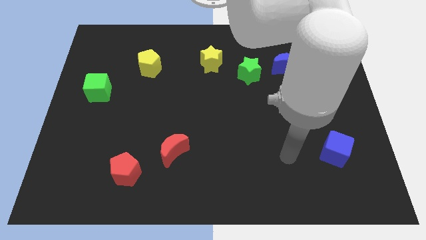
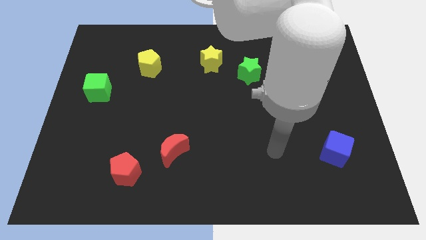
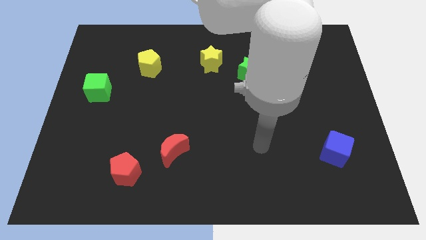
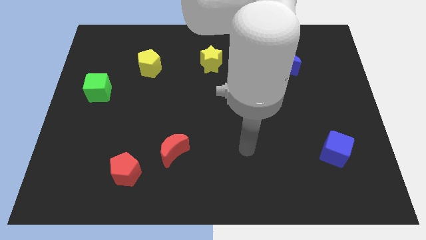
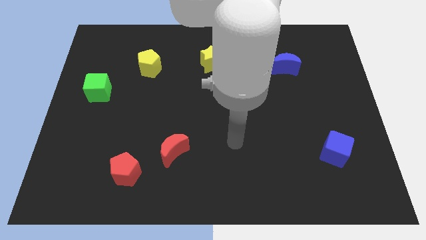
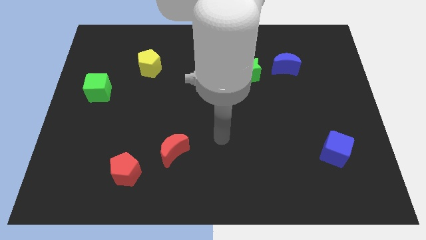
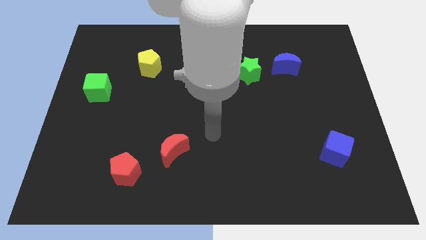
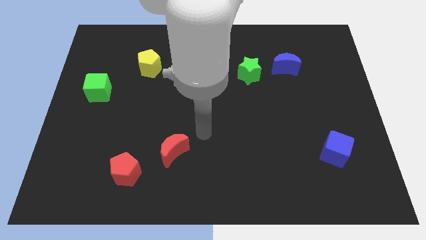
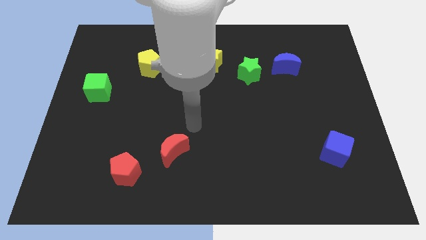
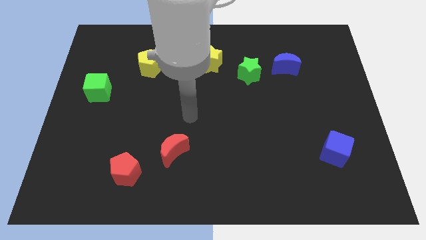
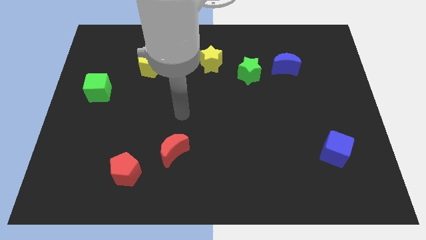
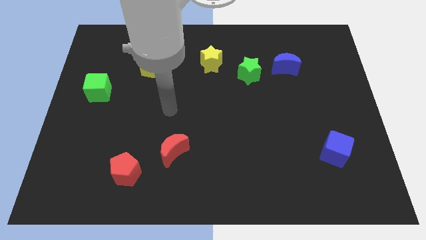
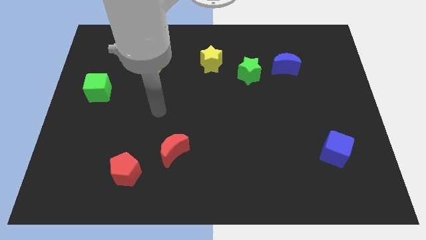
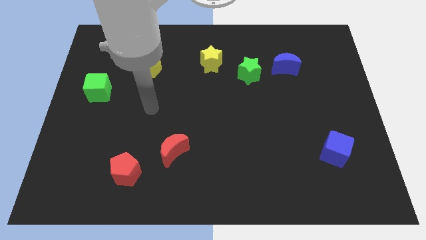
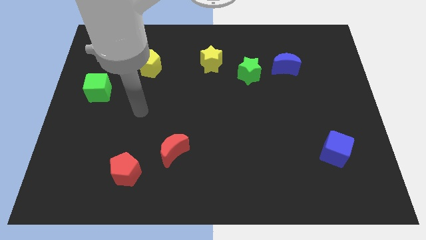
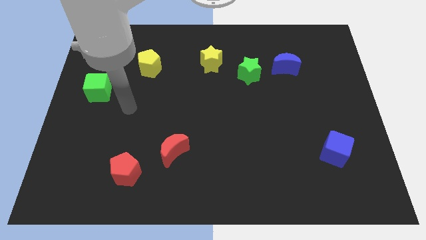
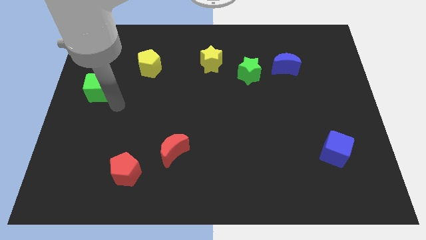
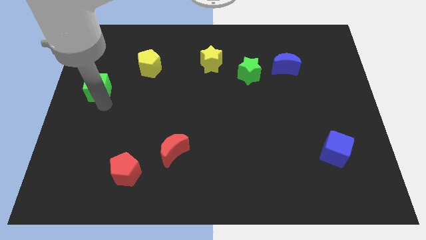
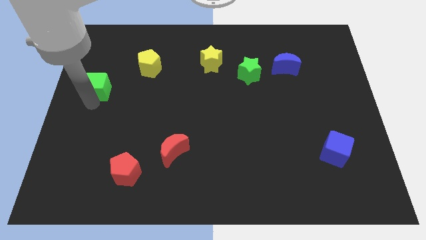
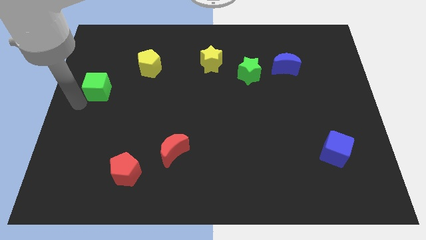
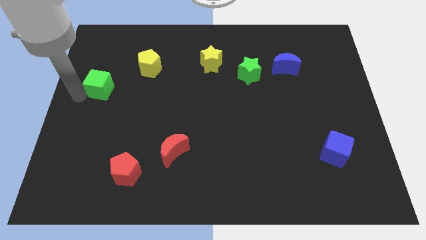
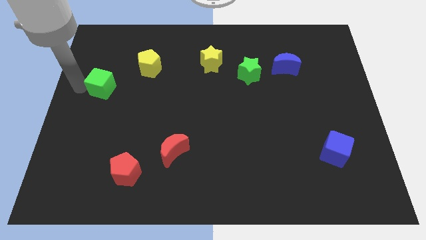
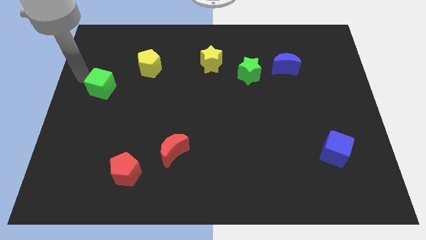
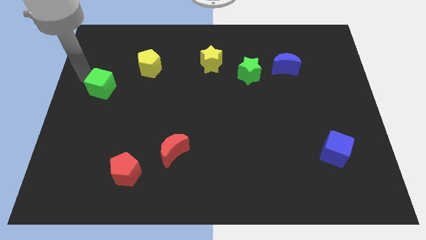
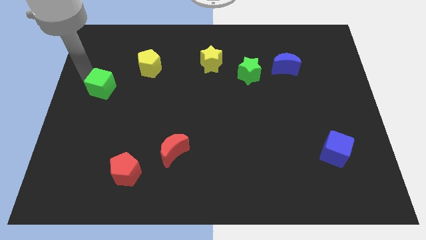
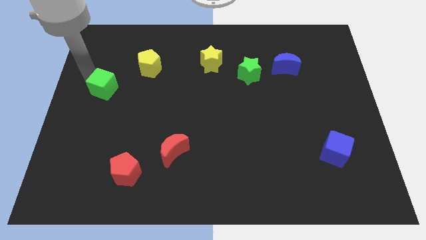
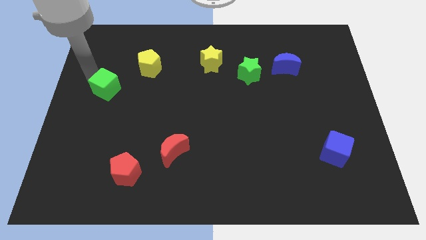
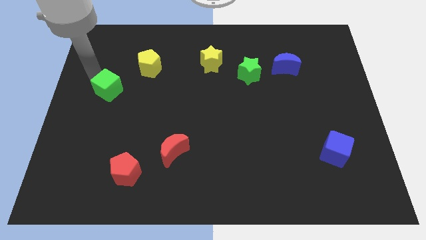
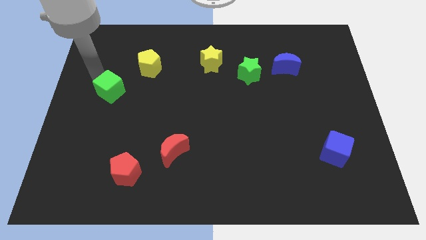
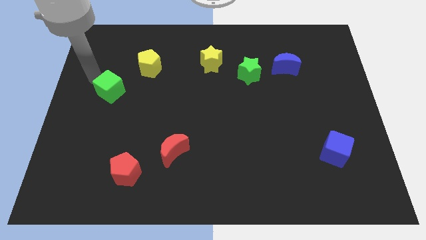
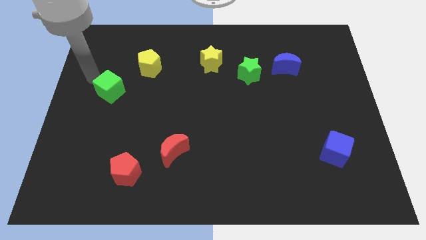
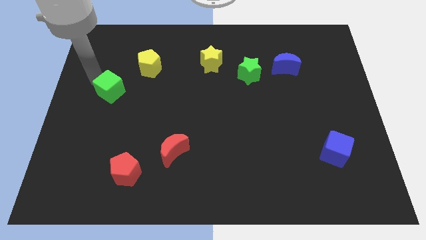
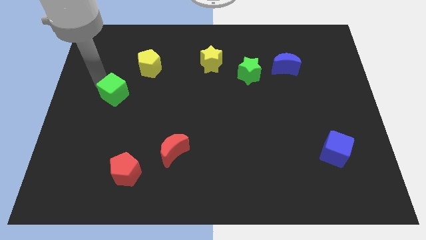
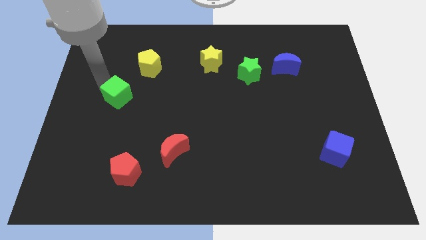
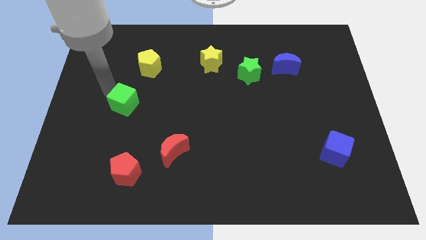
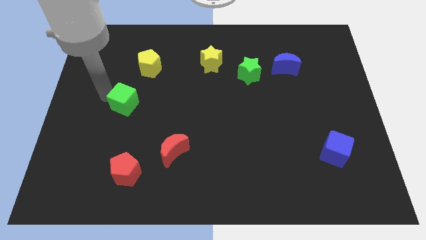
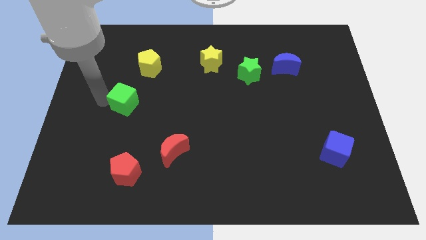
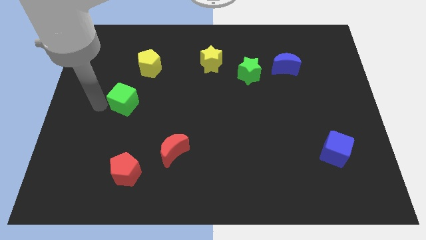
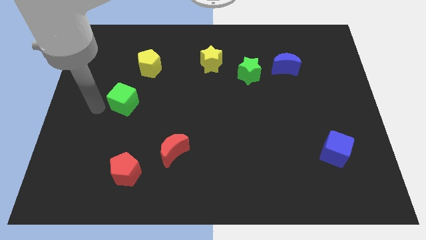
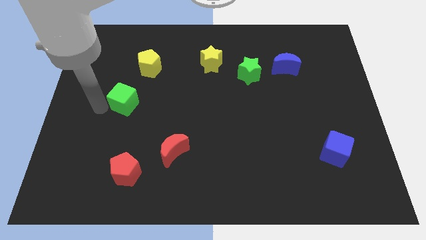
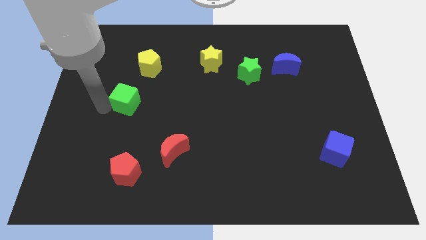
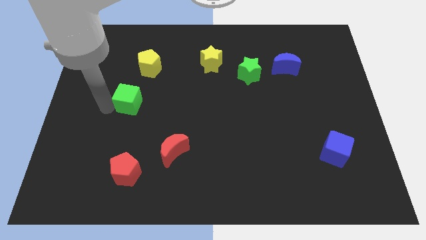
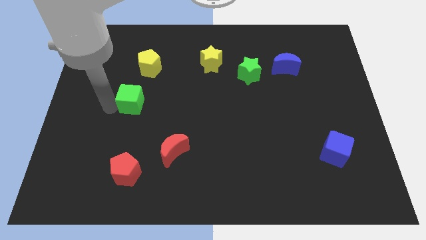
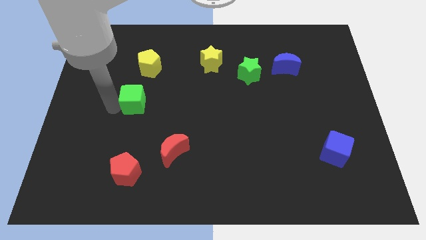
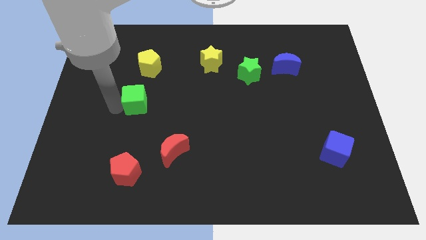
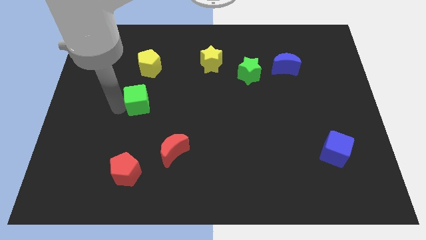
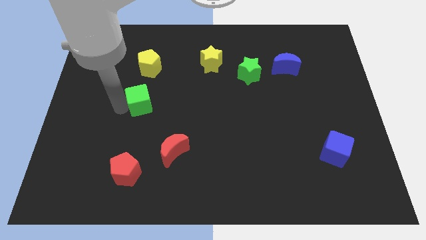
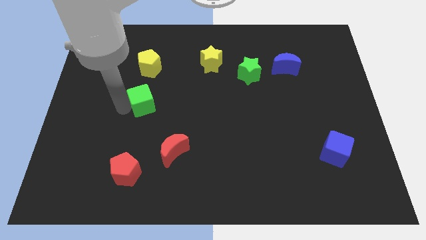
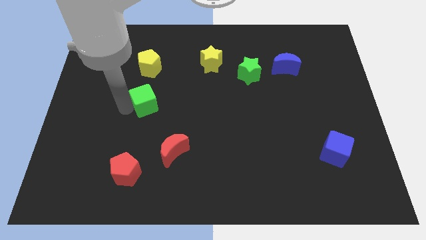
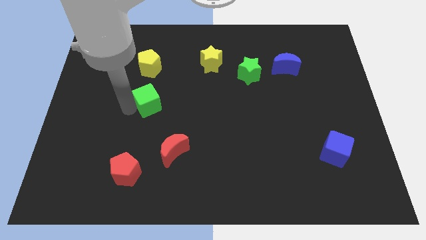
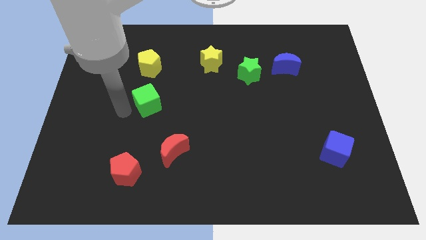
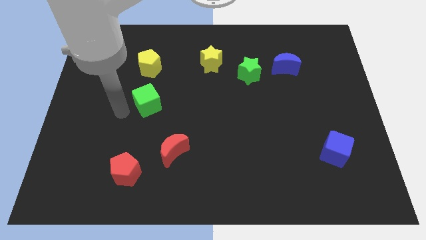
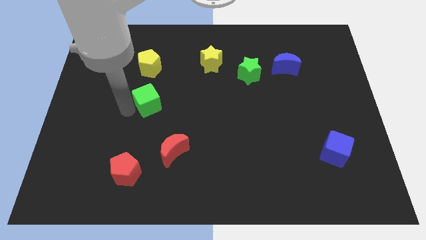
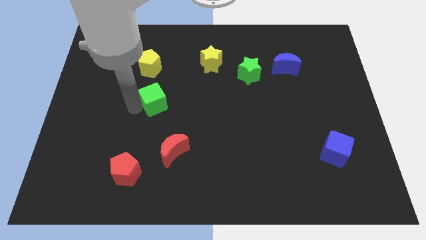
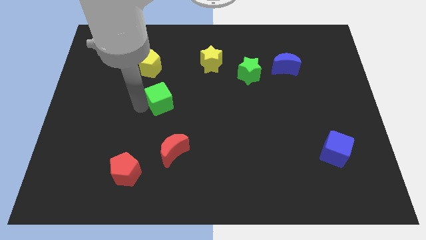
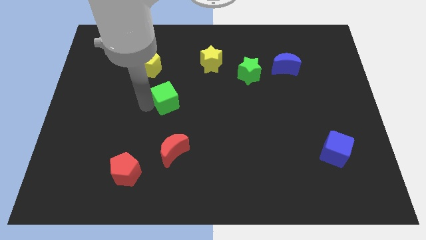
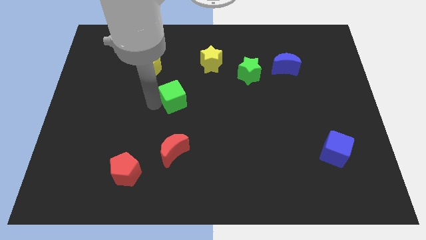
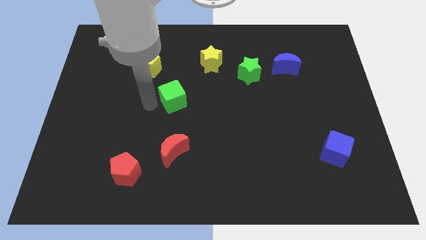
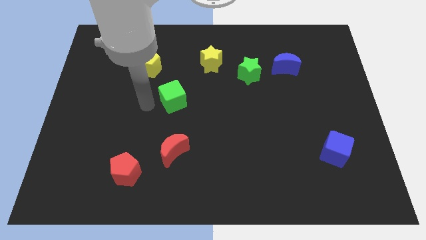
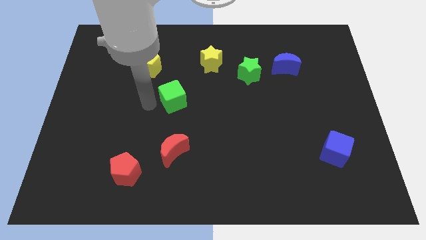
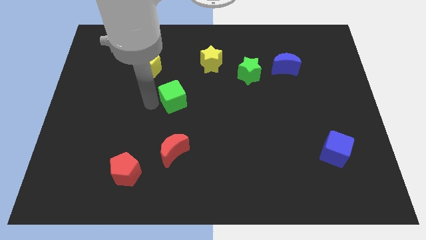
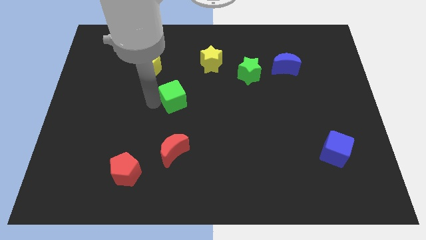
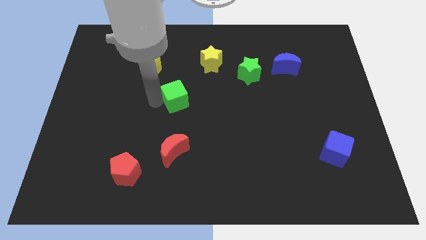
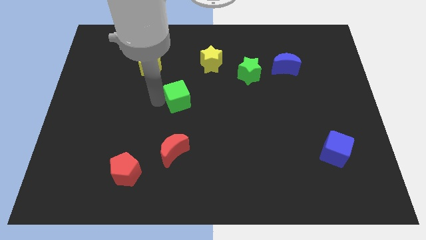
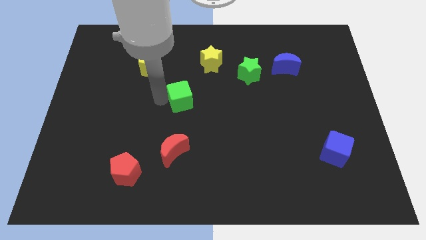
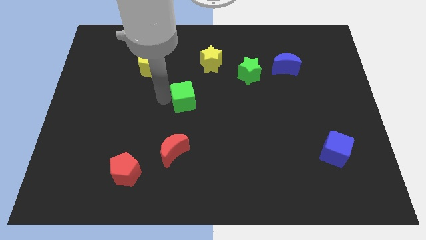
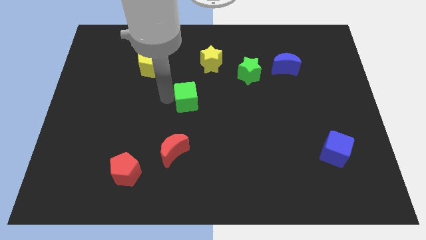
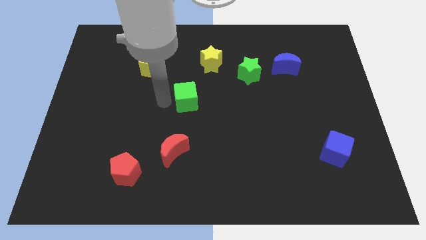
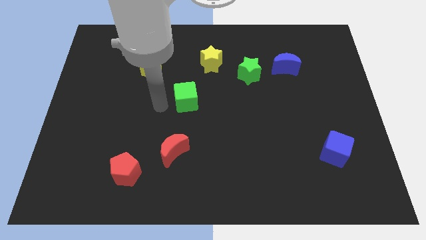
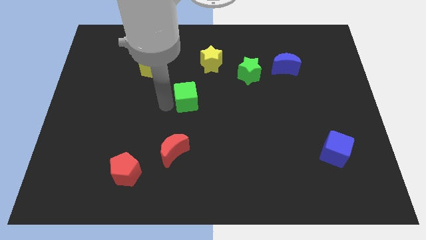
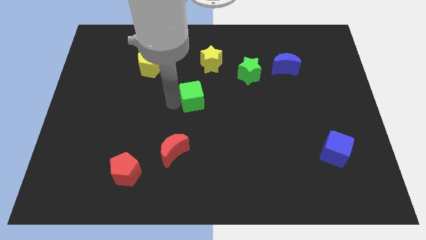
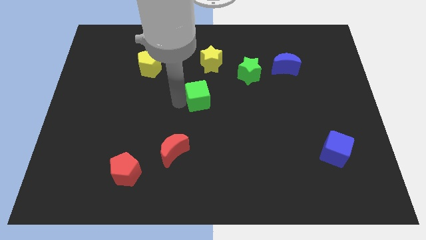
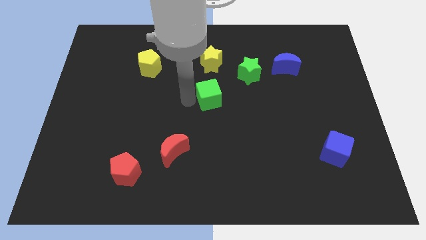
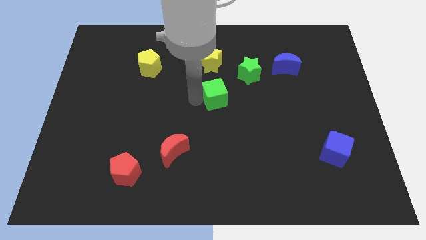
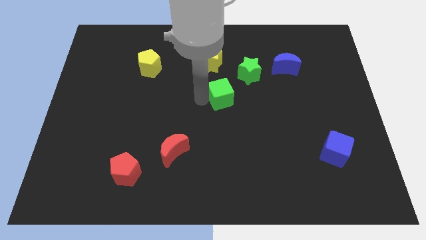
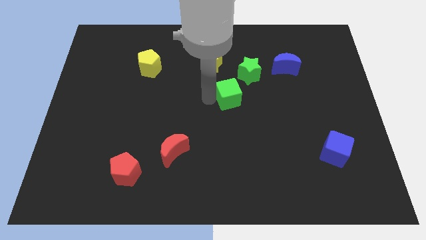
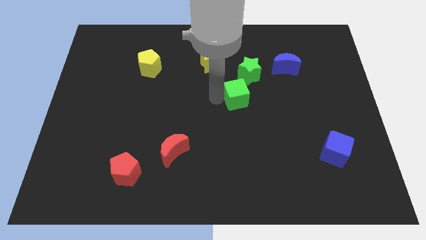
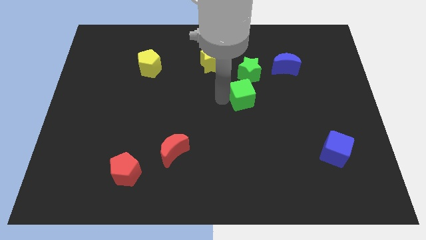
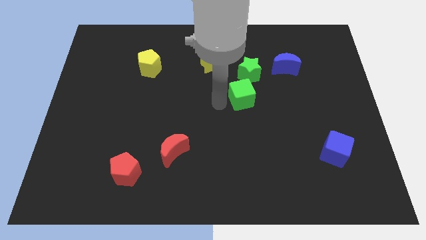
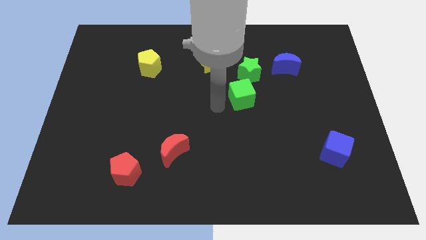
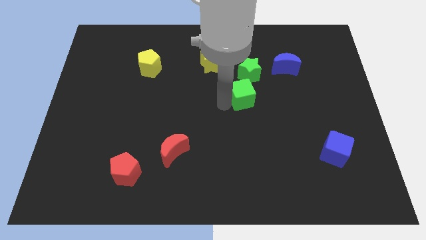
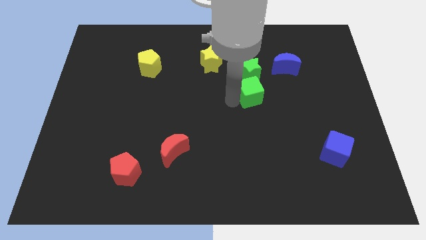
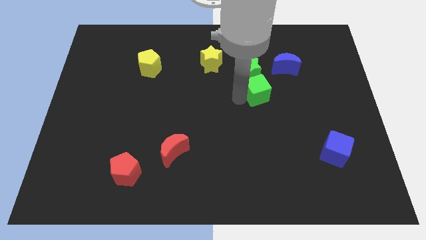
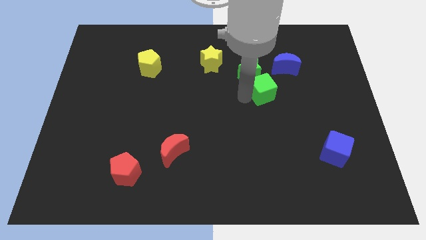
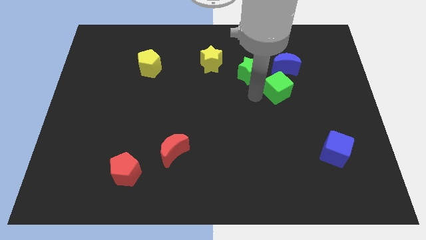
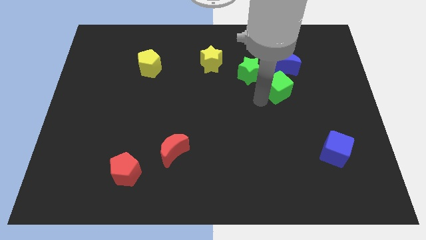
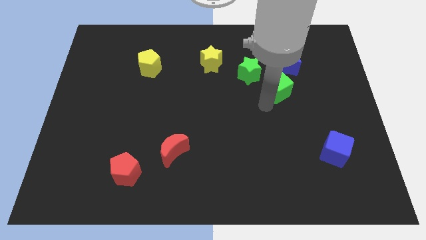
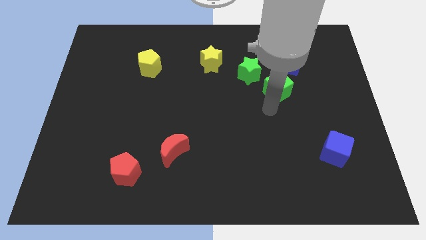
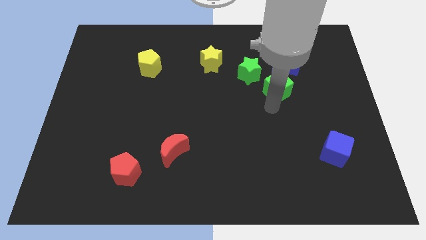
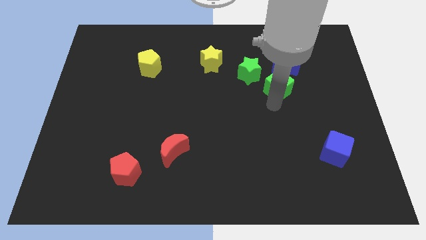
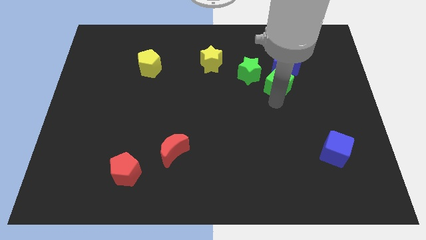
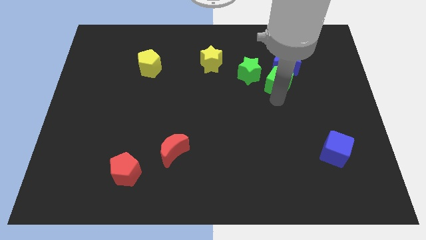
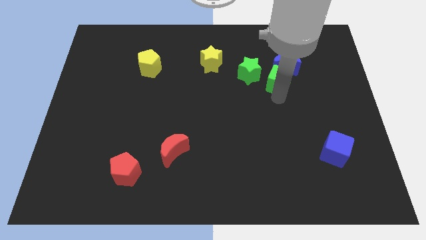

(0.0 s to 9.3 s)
put the green cube towards the blue moon
